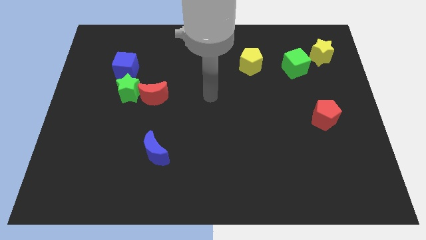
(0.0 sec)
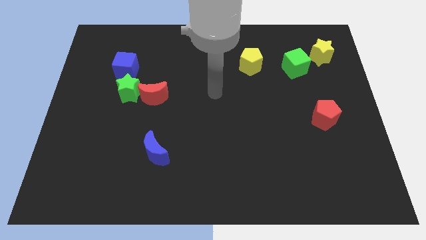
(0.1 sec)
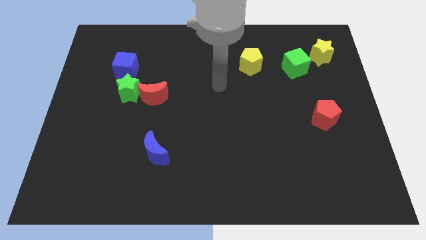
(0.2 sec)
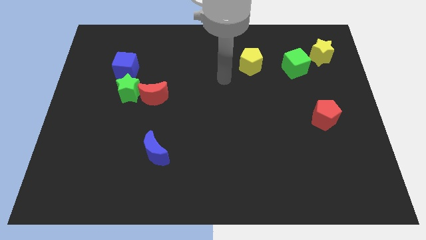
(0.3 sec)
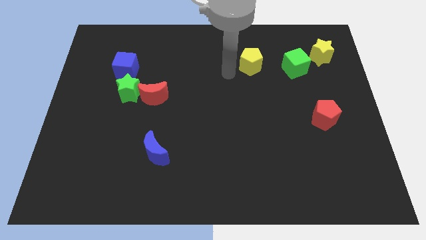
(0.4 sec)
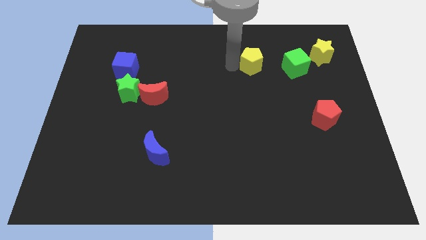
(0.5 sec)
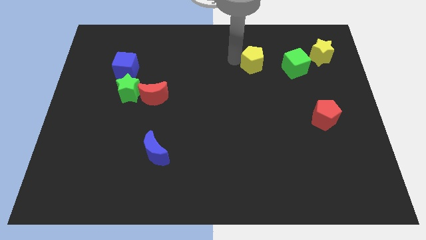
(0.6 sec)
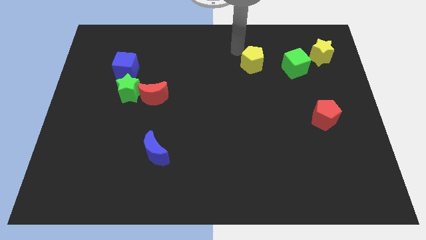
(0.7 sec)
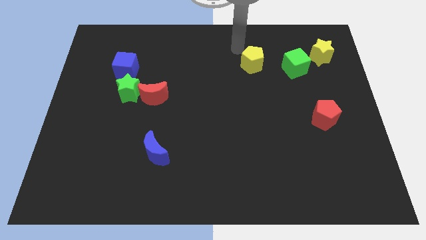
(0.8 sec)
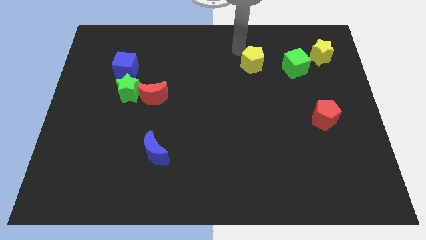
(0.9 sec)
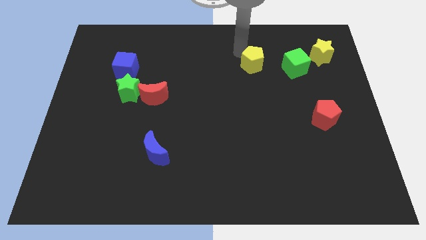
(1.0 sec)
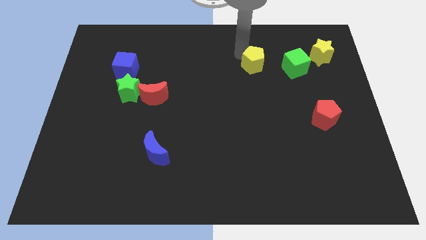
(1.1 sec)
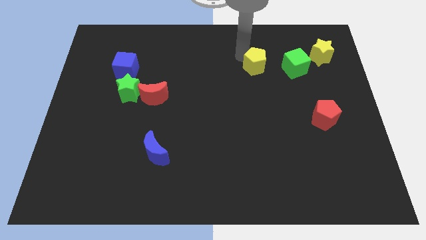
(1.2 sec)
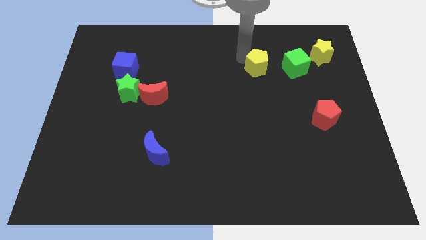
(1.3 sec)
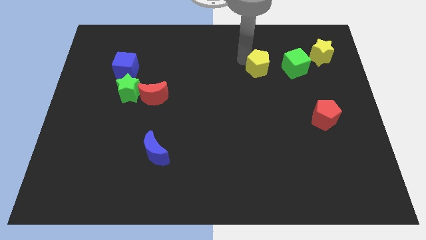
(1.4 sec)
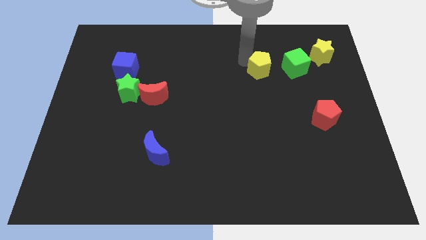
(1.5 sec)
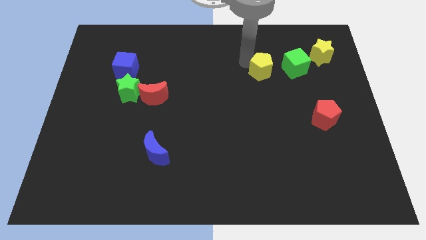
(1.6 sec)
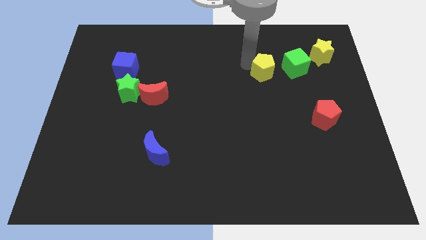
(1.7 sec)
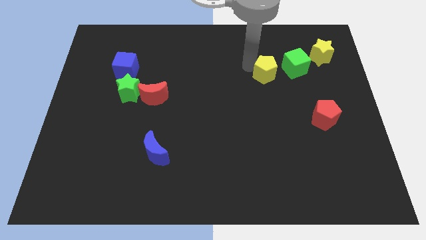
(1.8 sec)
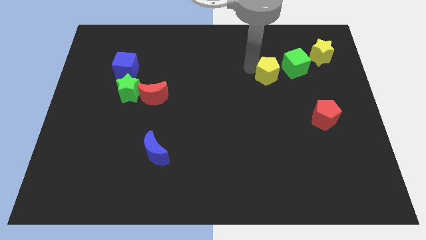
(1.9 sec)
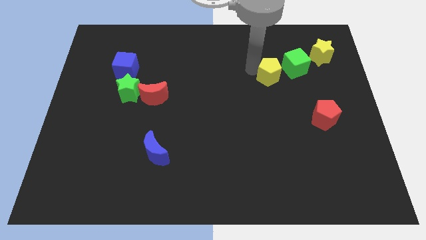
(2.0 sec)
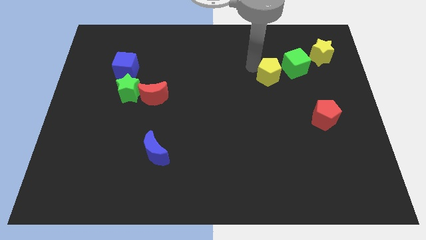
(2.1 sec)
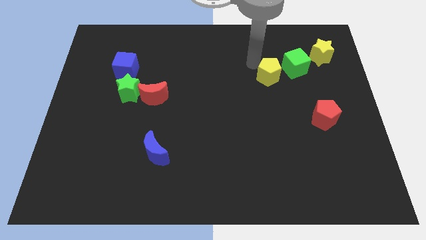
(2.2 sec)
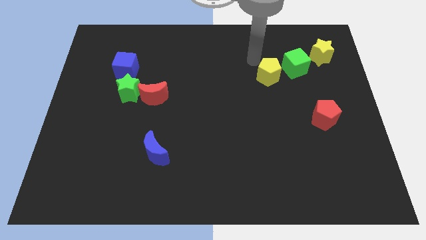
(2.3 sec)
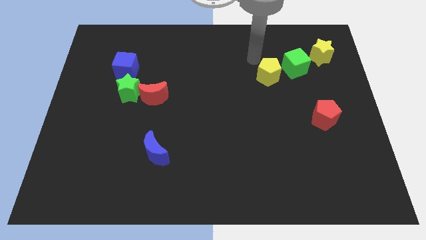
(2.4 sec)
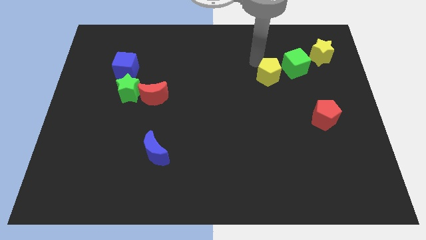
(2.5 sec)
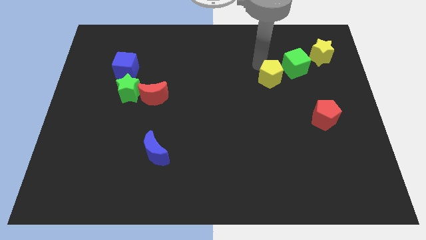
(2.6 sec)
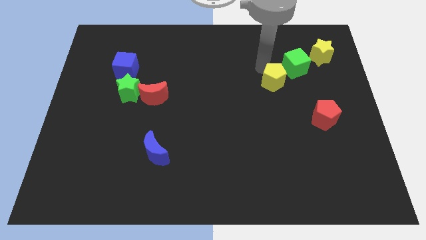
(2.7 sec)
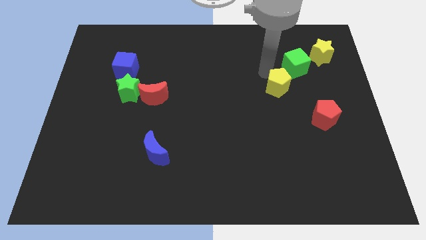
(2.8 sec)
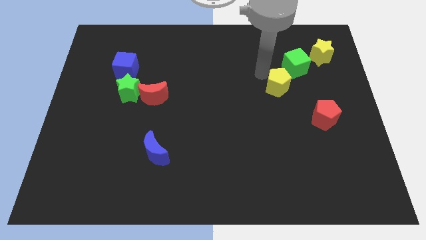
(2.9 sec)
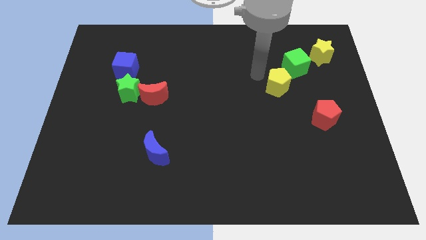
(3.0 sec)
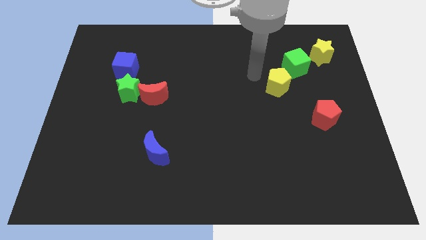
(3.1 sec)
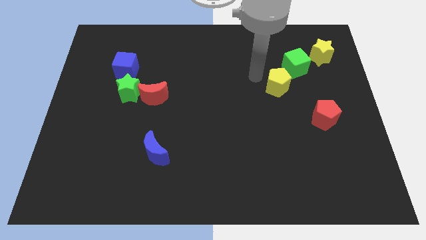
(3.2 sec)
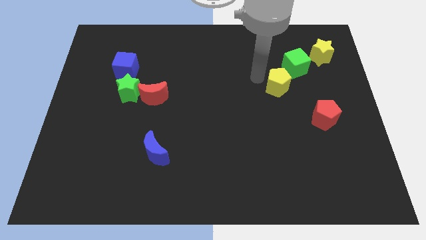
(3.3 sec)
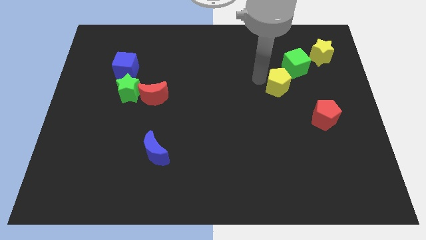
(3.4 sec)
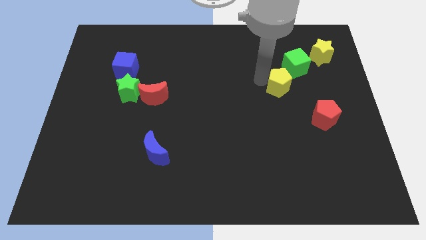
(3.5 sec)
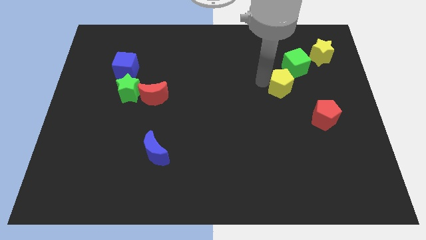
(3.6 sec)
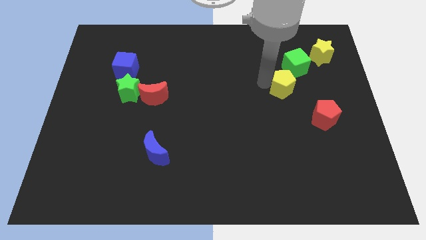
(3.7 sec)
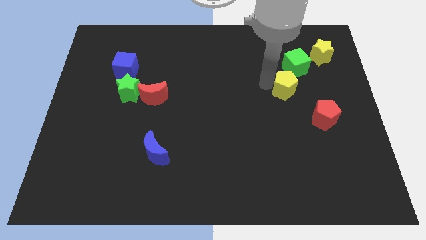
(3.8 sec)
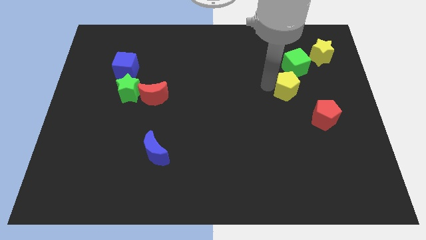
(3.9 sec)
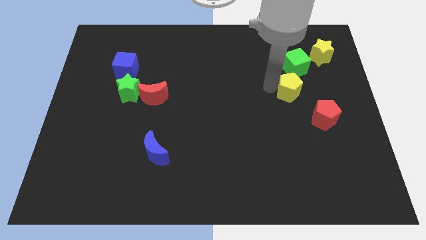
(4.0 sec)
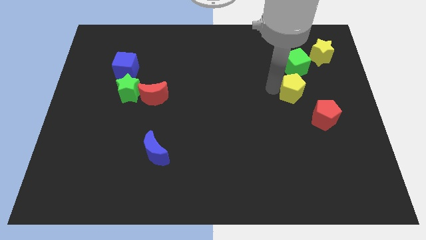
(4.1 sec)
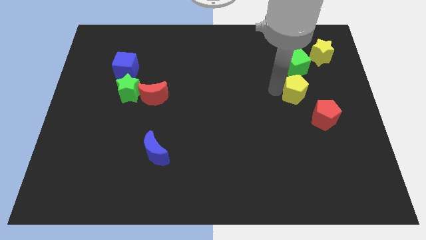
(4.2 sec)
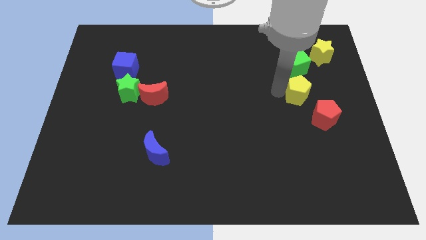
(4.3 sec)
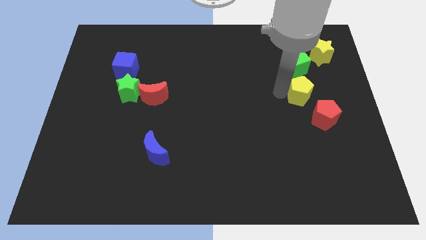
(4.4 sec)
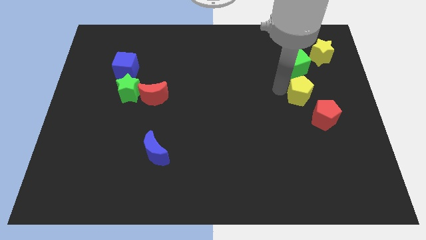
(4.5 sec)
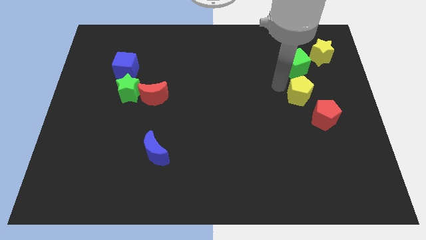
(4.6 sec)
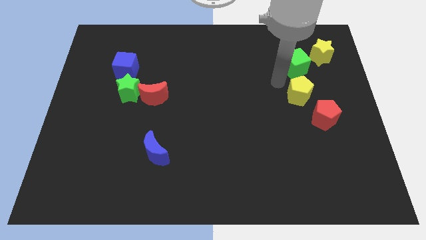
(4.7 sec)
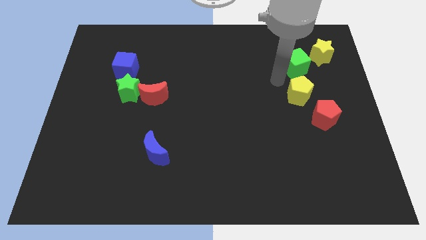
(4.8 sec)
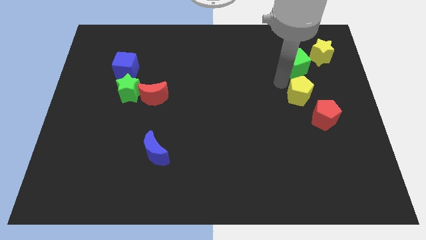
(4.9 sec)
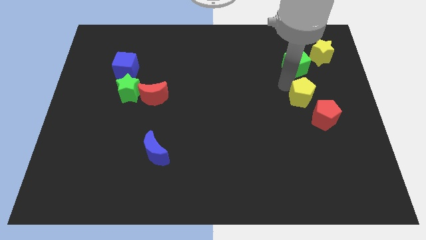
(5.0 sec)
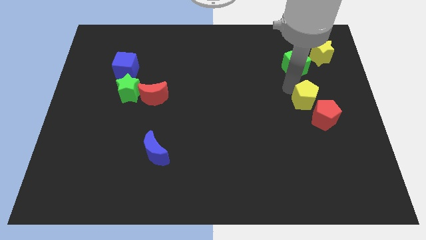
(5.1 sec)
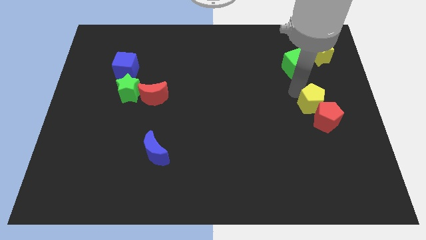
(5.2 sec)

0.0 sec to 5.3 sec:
put the yellow pentagon close to the red pentagon

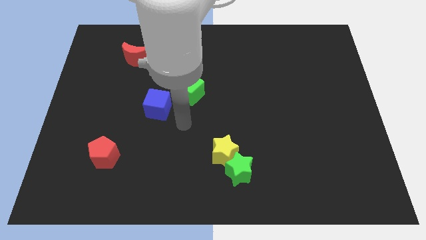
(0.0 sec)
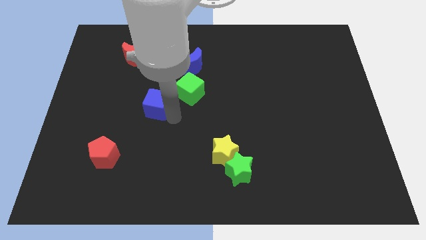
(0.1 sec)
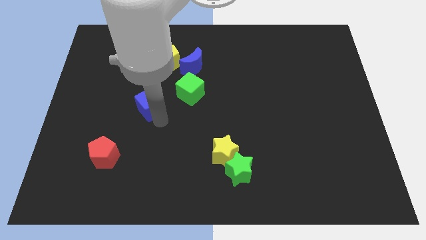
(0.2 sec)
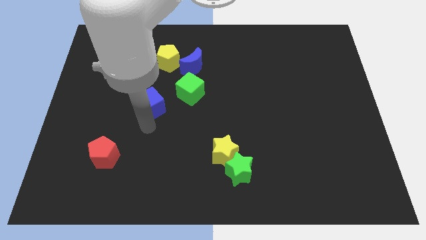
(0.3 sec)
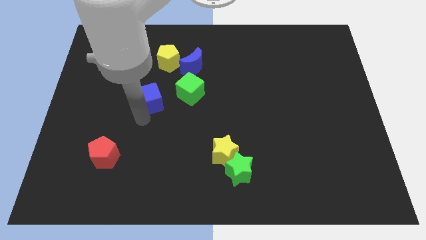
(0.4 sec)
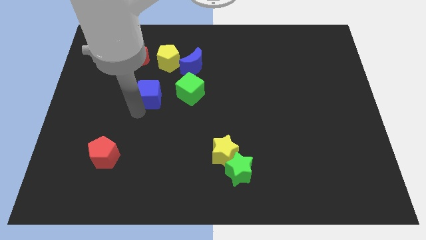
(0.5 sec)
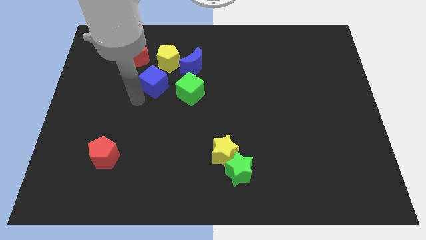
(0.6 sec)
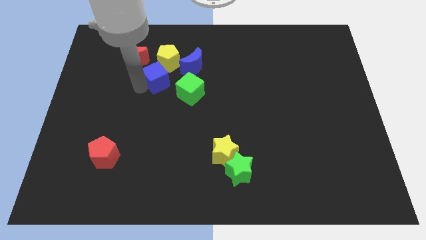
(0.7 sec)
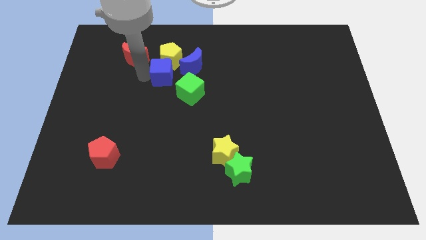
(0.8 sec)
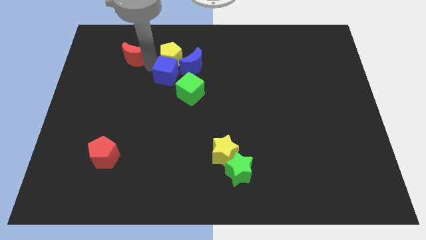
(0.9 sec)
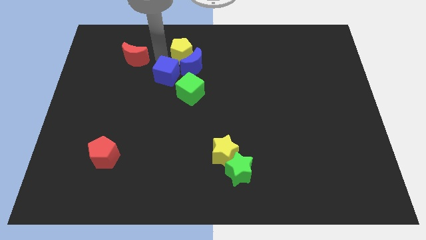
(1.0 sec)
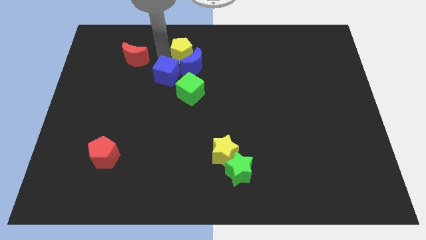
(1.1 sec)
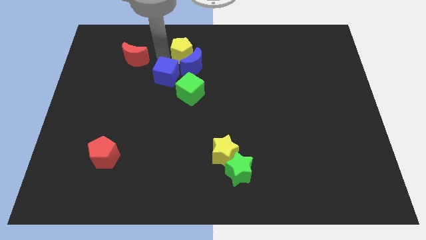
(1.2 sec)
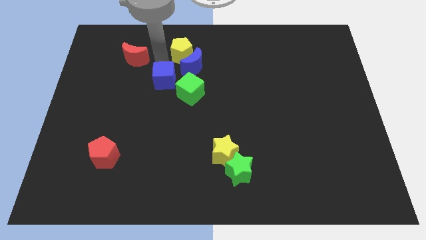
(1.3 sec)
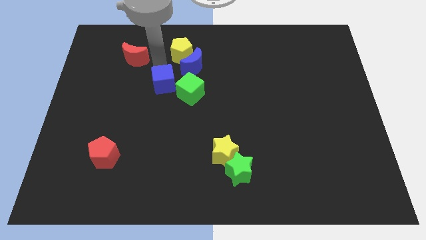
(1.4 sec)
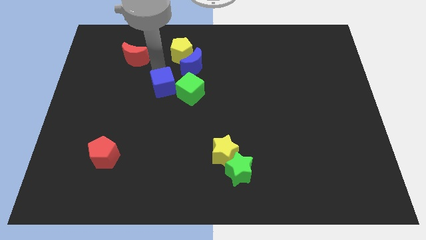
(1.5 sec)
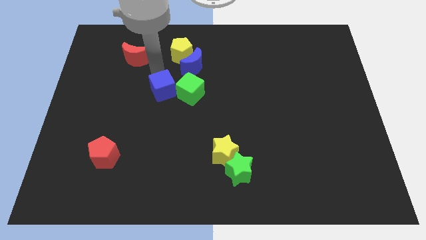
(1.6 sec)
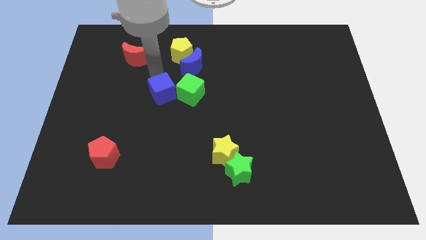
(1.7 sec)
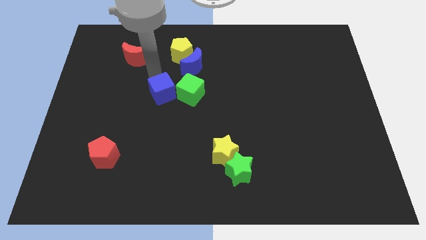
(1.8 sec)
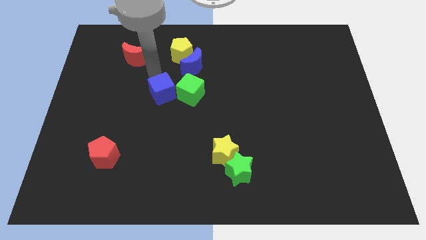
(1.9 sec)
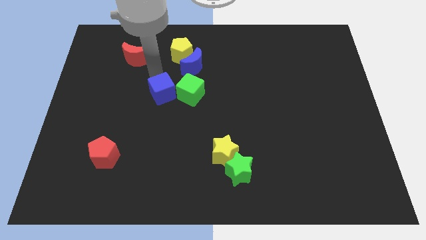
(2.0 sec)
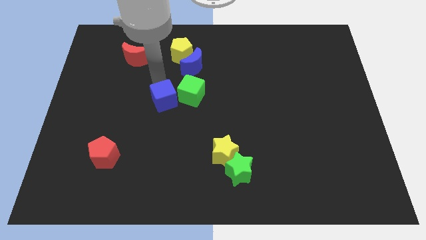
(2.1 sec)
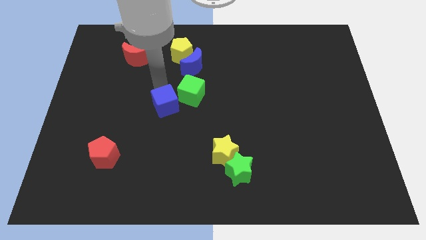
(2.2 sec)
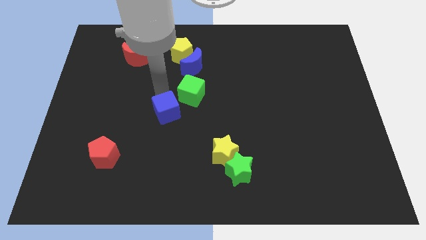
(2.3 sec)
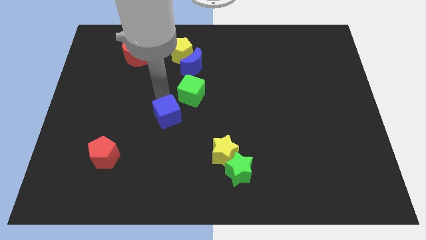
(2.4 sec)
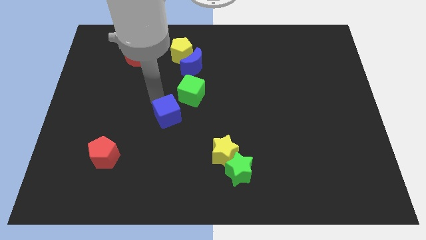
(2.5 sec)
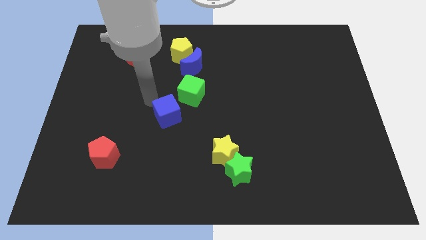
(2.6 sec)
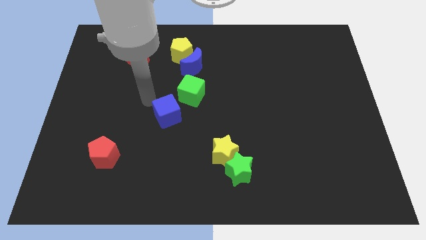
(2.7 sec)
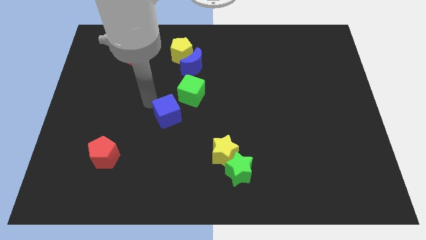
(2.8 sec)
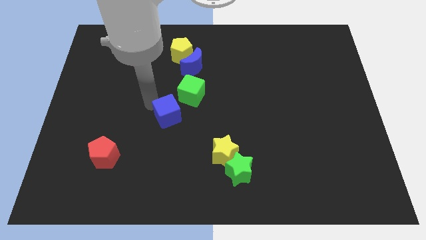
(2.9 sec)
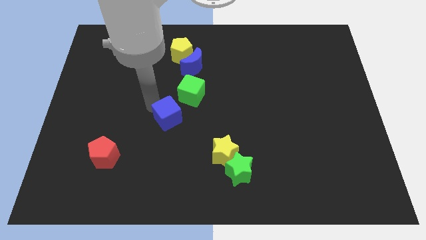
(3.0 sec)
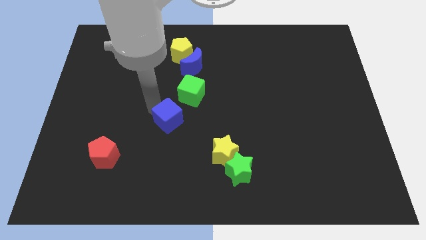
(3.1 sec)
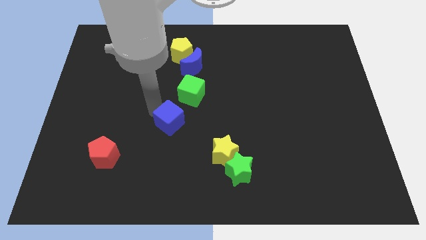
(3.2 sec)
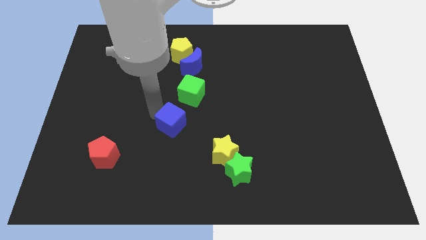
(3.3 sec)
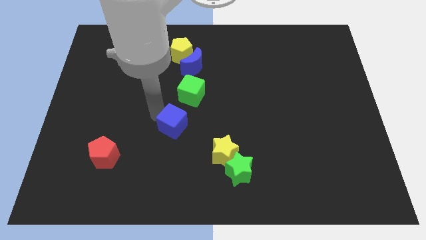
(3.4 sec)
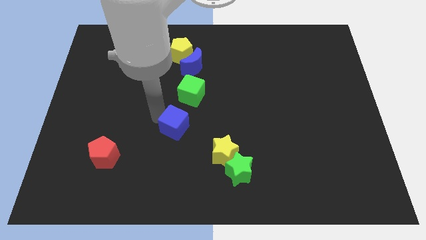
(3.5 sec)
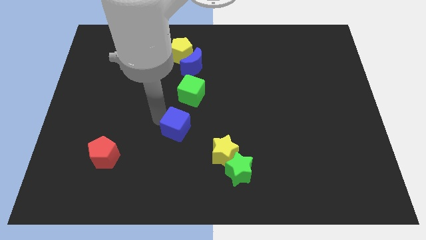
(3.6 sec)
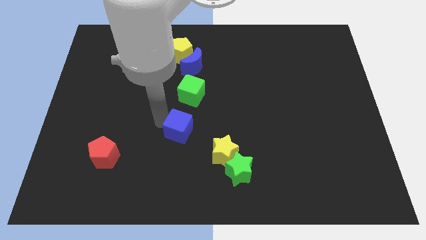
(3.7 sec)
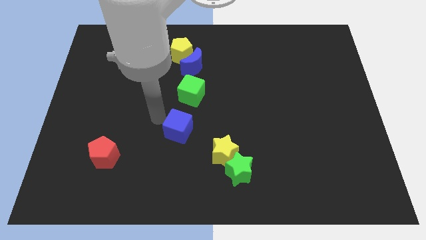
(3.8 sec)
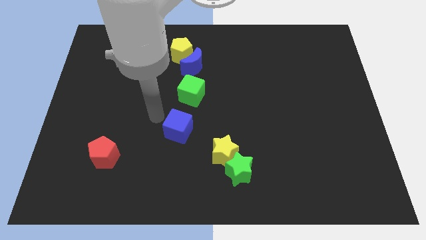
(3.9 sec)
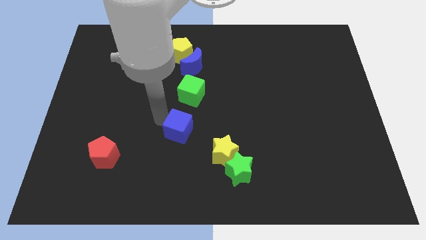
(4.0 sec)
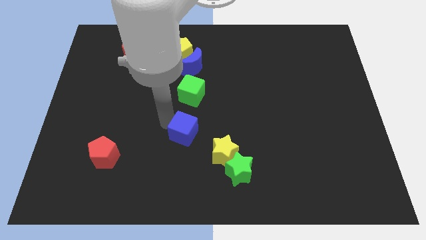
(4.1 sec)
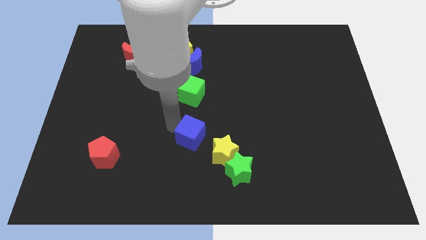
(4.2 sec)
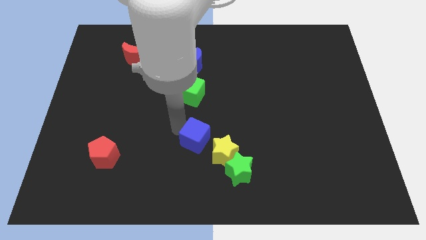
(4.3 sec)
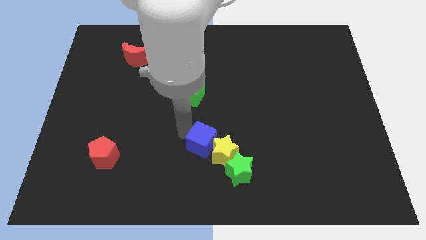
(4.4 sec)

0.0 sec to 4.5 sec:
put the blue cube towards the yellow star
